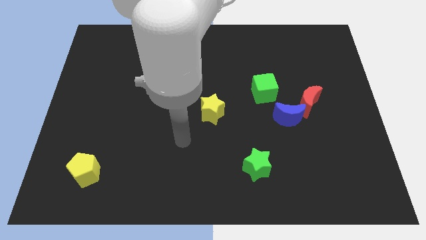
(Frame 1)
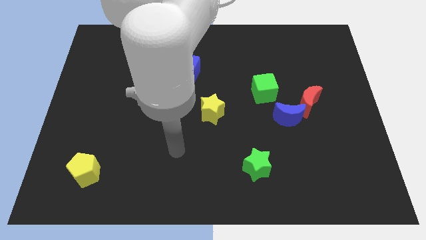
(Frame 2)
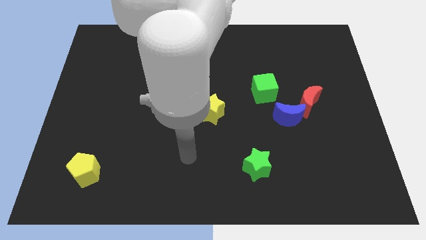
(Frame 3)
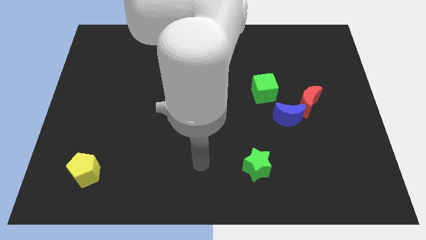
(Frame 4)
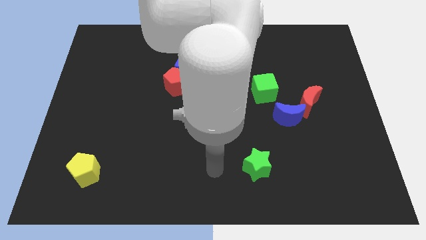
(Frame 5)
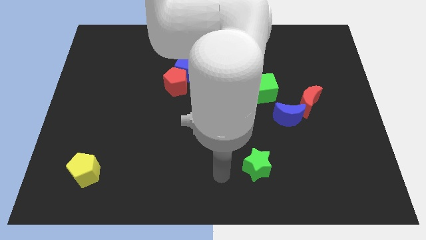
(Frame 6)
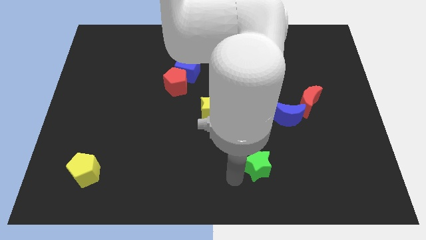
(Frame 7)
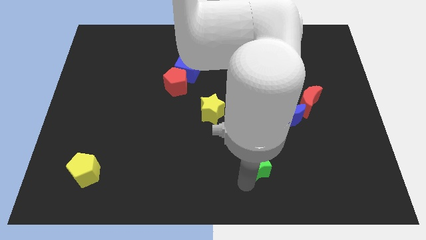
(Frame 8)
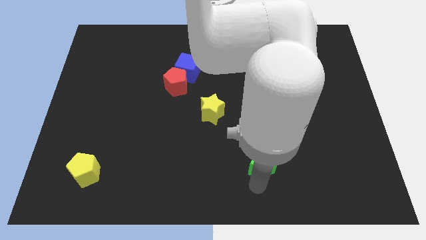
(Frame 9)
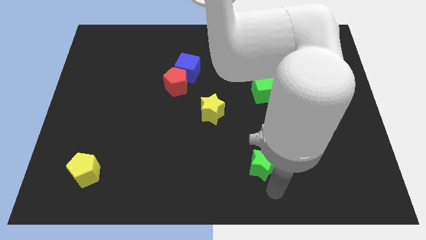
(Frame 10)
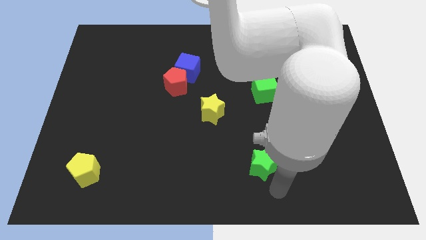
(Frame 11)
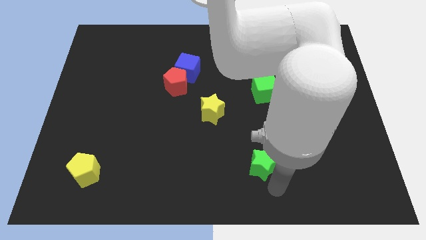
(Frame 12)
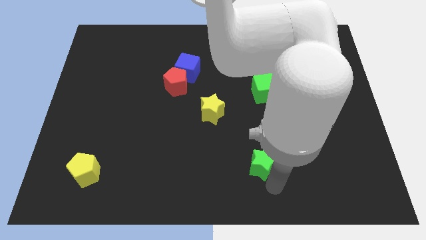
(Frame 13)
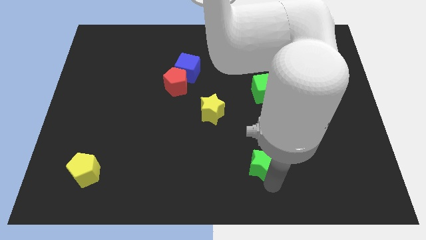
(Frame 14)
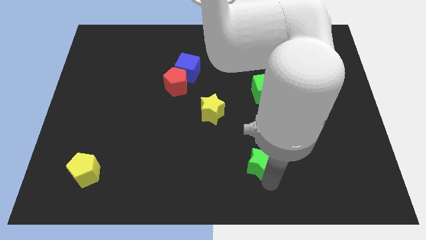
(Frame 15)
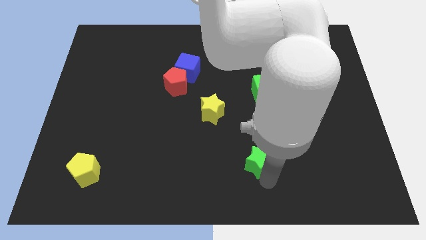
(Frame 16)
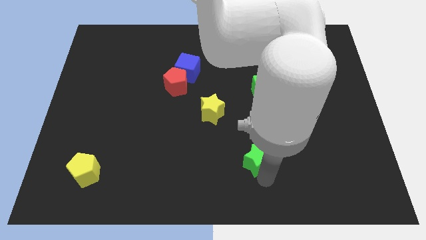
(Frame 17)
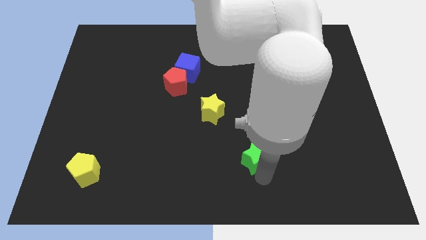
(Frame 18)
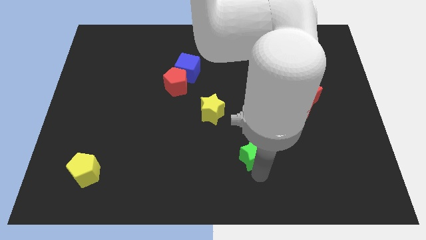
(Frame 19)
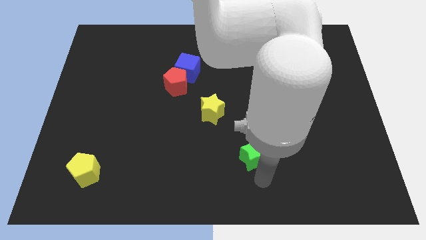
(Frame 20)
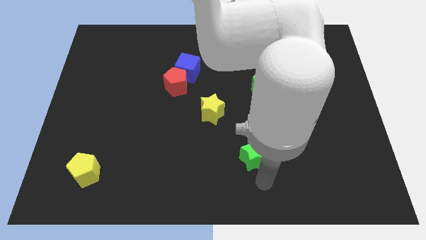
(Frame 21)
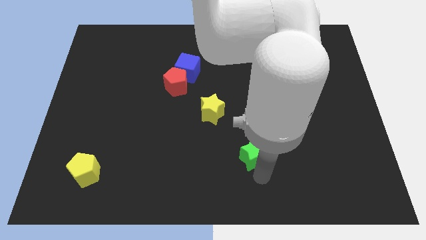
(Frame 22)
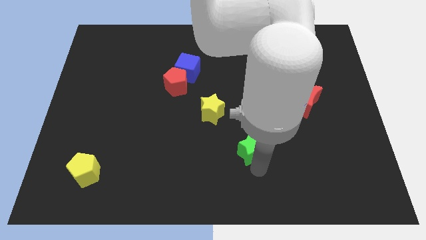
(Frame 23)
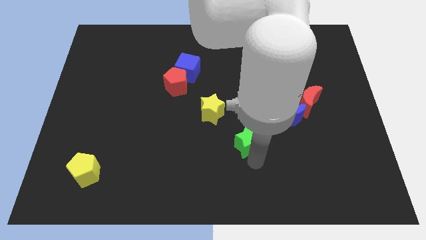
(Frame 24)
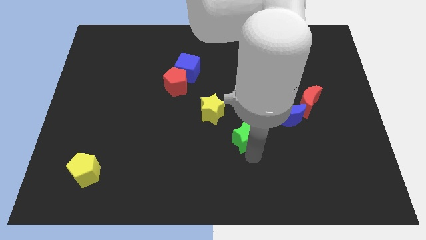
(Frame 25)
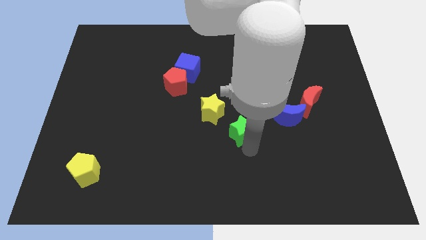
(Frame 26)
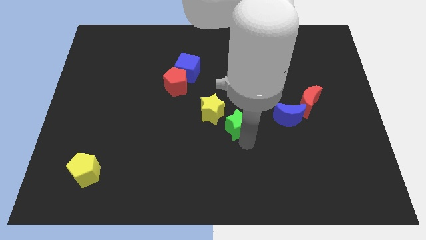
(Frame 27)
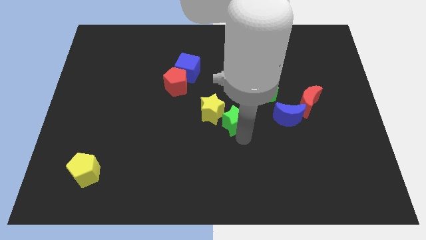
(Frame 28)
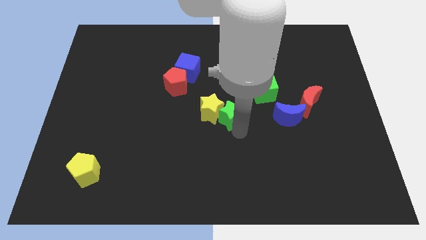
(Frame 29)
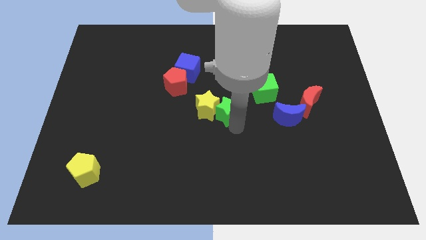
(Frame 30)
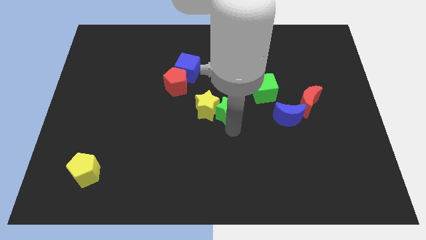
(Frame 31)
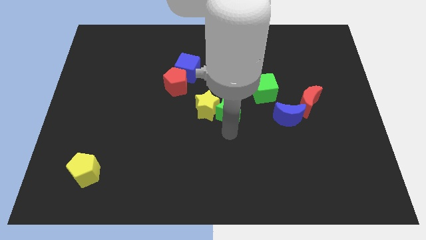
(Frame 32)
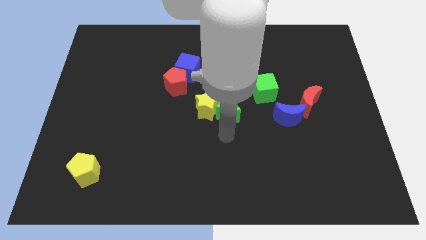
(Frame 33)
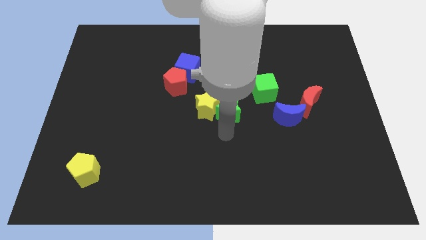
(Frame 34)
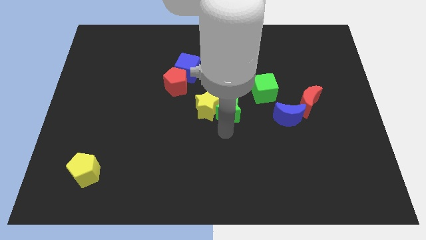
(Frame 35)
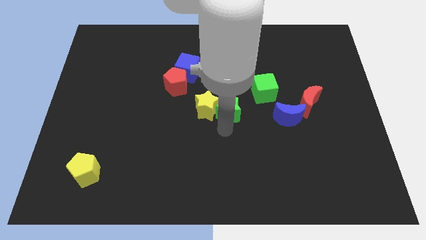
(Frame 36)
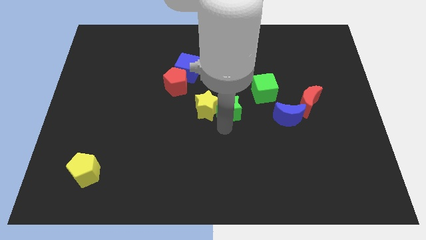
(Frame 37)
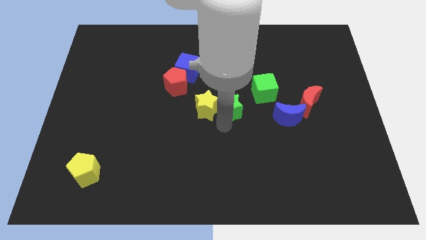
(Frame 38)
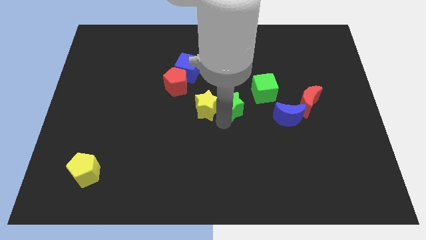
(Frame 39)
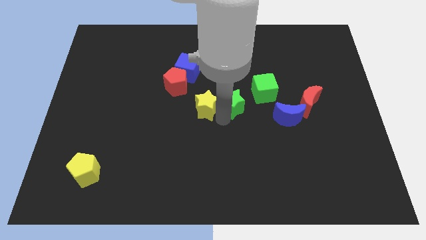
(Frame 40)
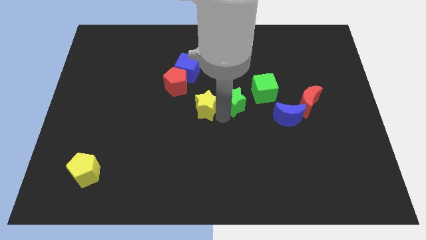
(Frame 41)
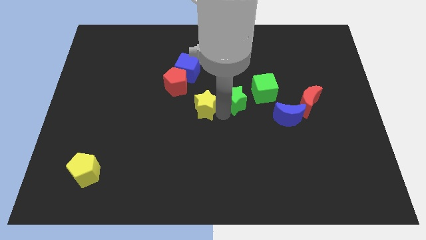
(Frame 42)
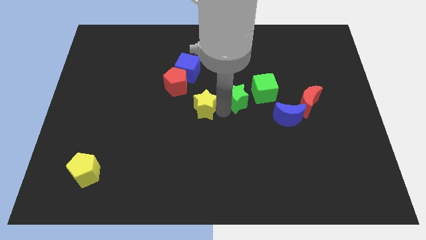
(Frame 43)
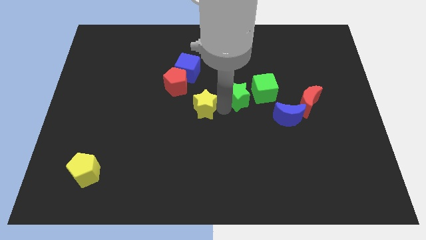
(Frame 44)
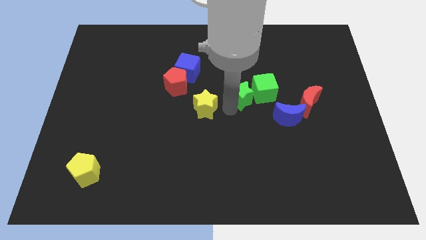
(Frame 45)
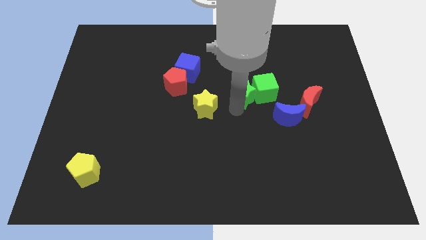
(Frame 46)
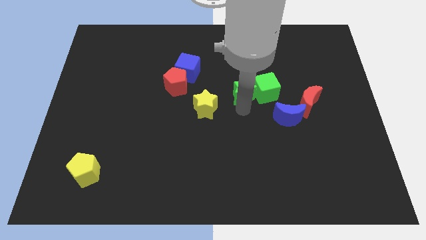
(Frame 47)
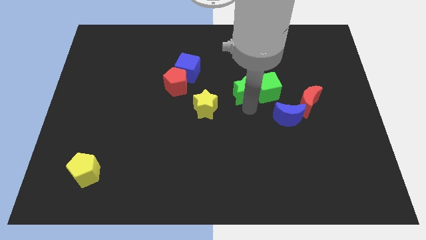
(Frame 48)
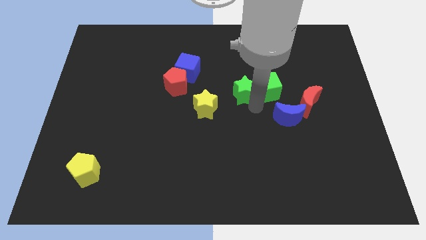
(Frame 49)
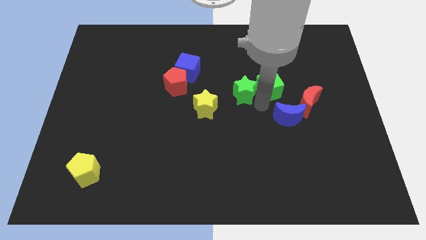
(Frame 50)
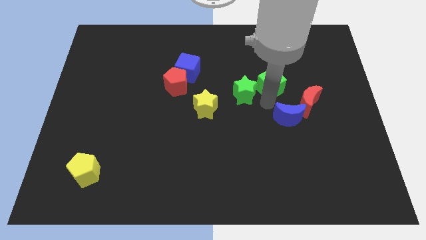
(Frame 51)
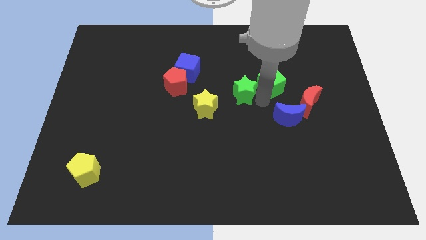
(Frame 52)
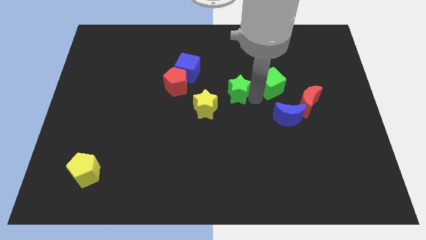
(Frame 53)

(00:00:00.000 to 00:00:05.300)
push the green star right of the red pentagon

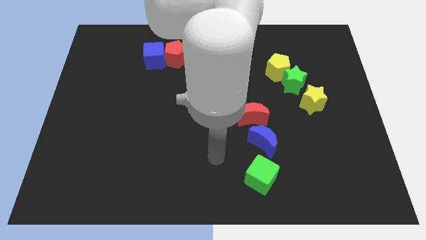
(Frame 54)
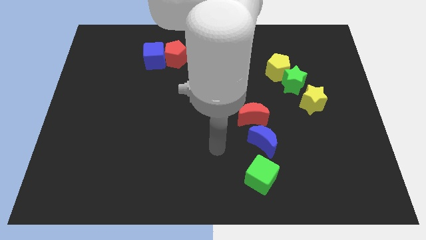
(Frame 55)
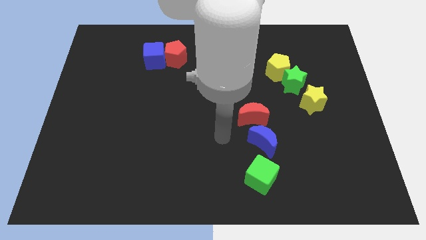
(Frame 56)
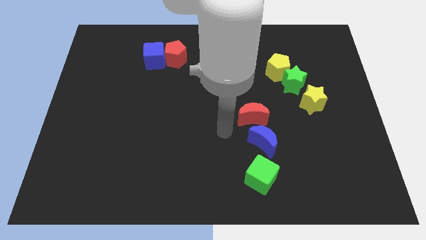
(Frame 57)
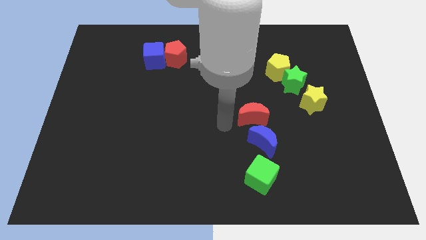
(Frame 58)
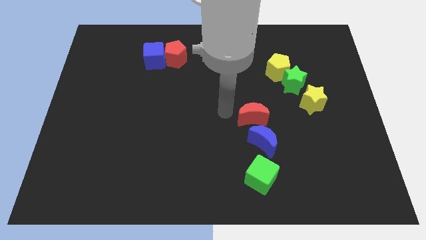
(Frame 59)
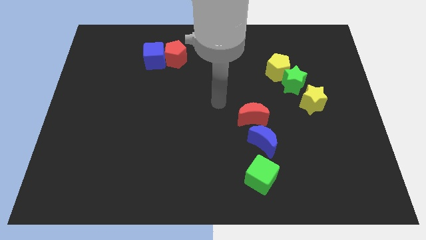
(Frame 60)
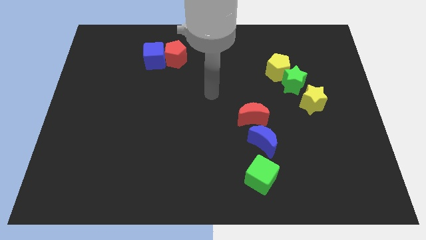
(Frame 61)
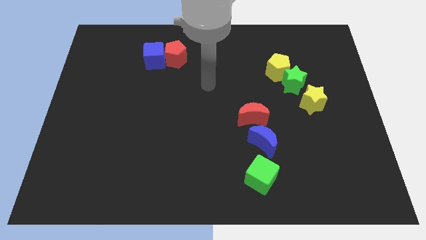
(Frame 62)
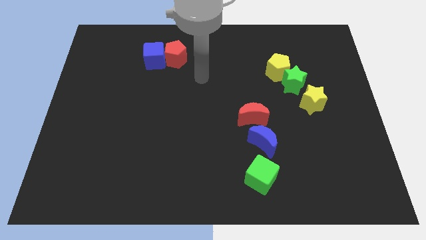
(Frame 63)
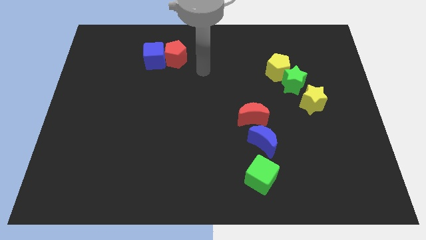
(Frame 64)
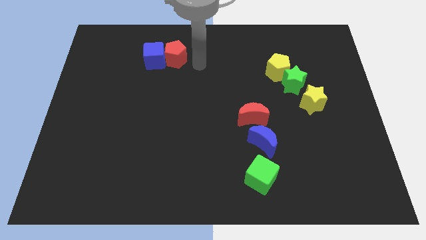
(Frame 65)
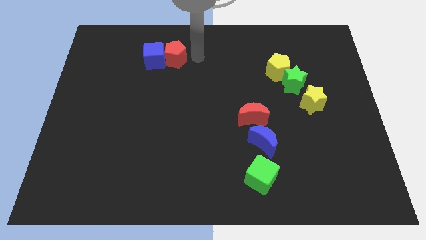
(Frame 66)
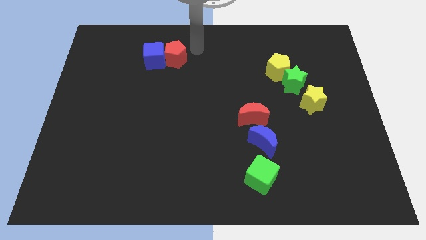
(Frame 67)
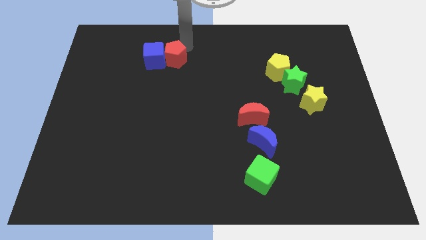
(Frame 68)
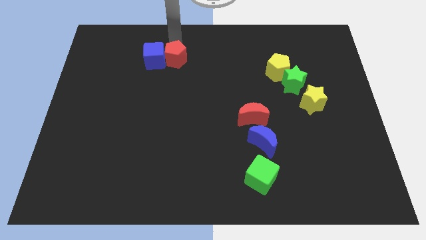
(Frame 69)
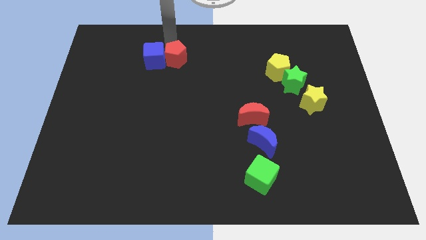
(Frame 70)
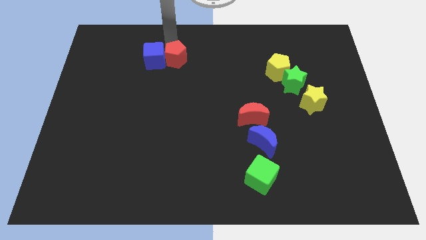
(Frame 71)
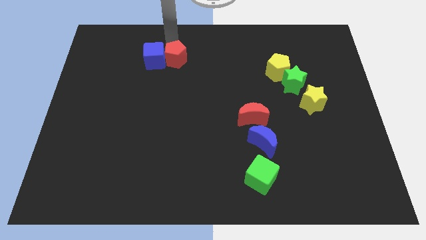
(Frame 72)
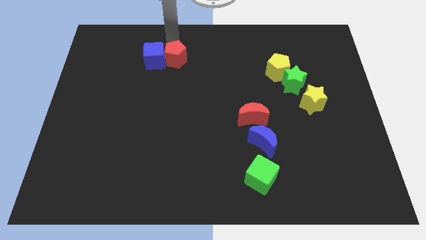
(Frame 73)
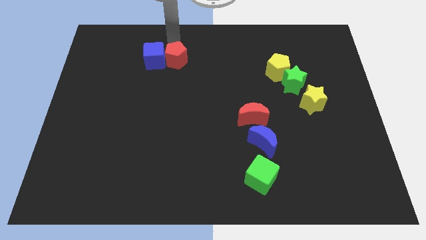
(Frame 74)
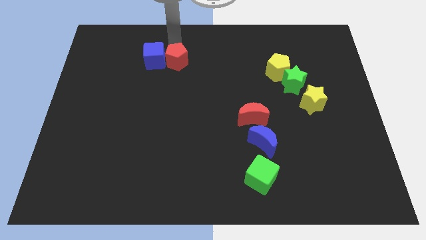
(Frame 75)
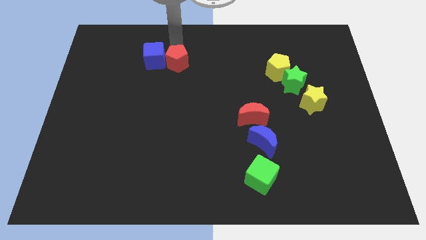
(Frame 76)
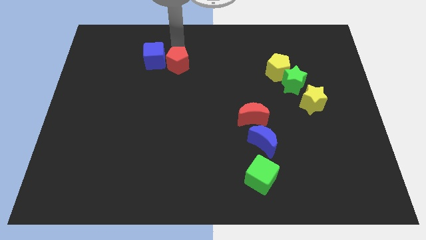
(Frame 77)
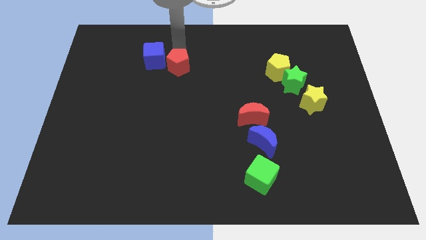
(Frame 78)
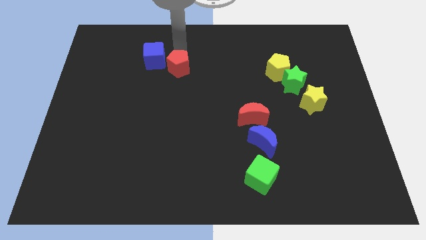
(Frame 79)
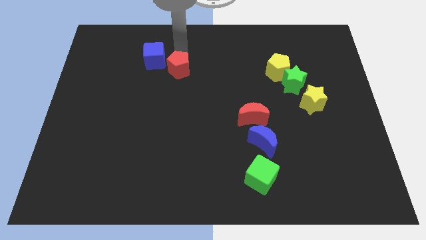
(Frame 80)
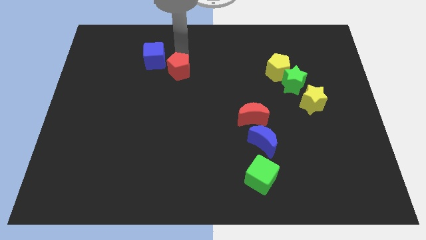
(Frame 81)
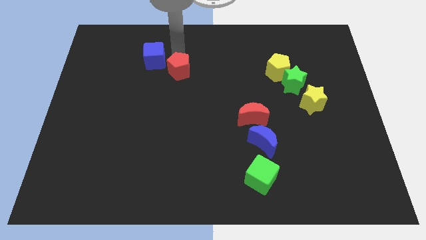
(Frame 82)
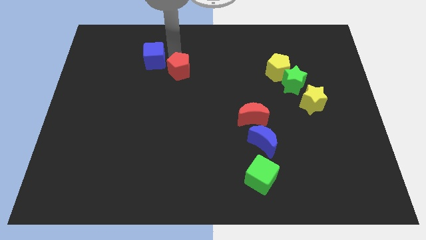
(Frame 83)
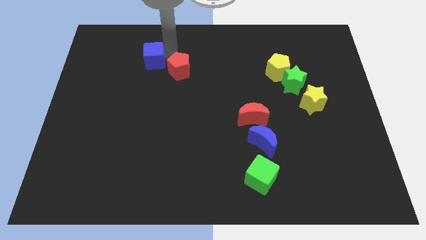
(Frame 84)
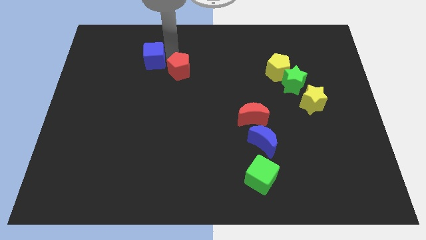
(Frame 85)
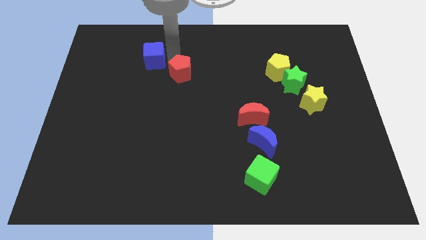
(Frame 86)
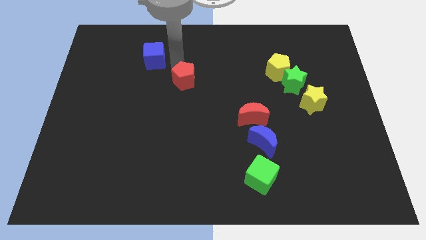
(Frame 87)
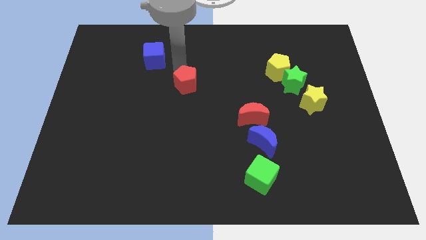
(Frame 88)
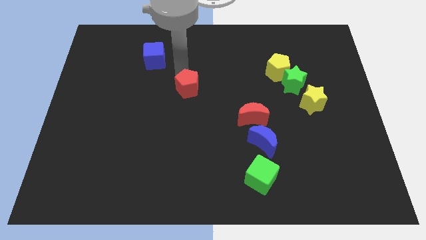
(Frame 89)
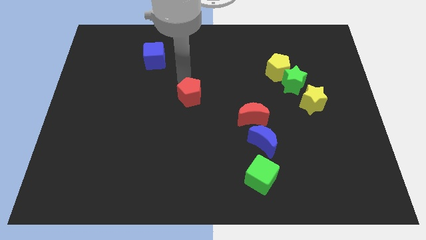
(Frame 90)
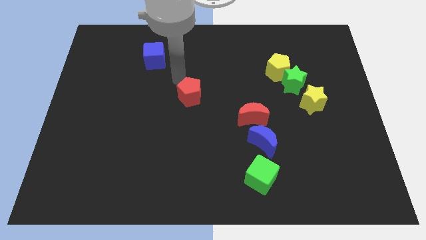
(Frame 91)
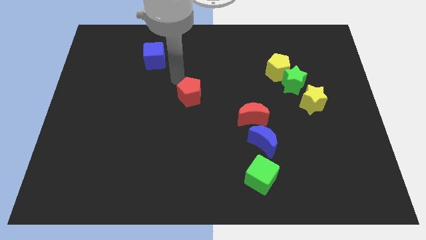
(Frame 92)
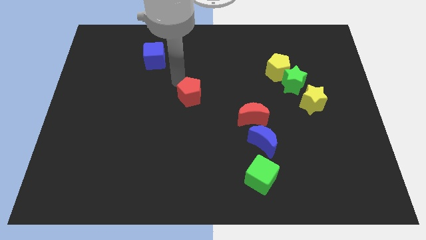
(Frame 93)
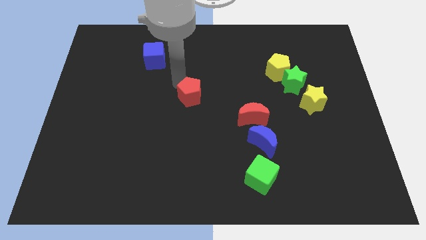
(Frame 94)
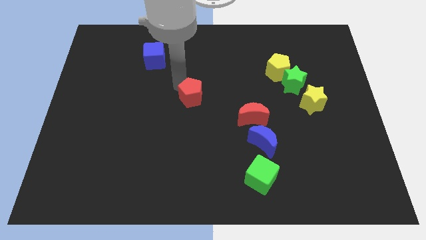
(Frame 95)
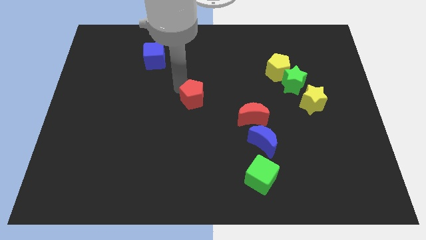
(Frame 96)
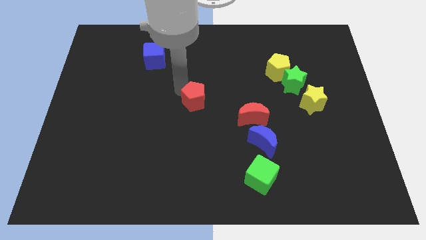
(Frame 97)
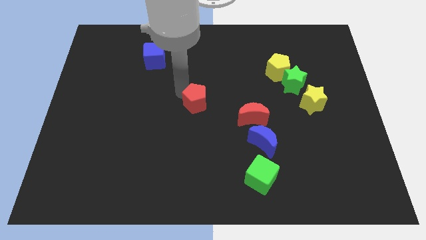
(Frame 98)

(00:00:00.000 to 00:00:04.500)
slide the red pentagon just left of the red moon
